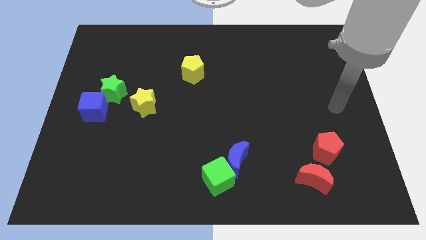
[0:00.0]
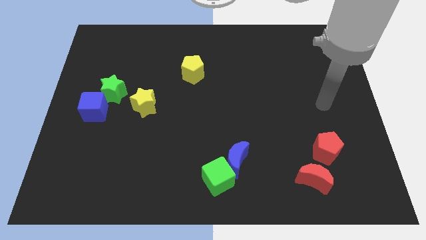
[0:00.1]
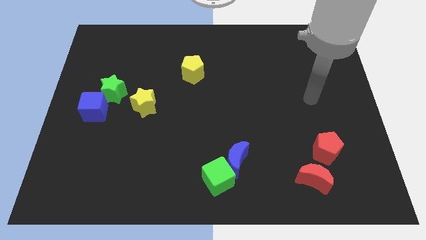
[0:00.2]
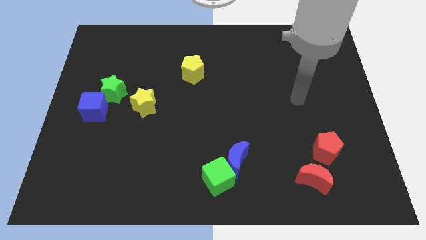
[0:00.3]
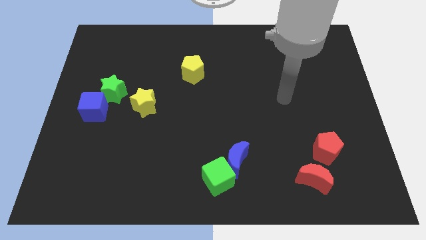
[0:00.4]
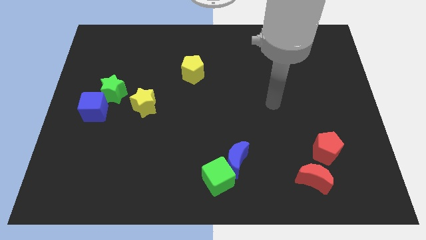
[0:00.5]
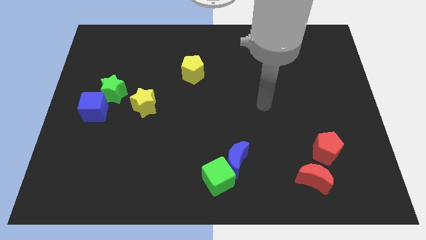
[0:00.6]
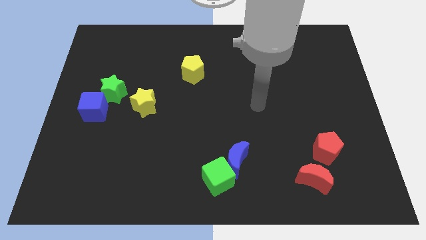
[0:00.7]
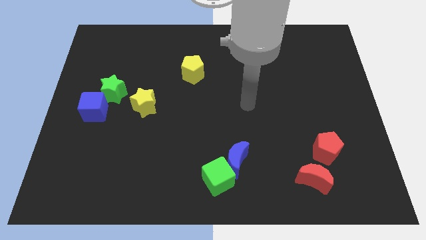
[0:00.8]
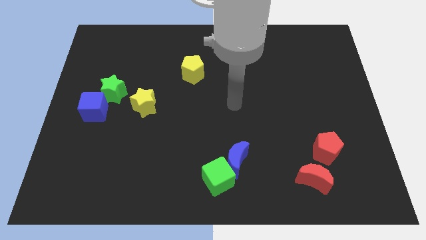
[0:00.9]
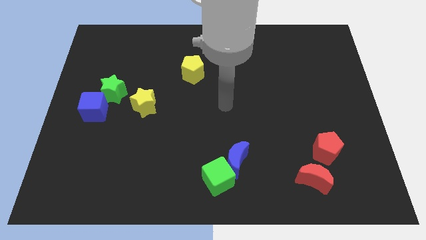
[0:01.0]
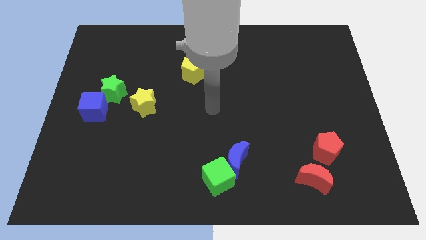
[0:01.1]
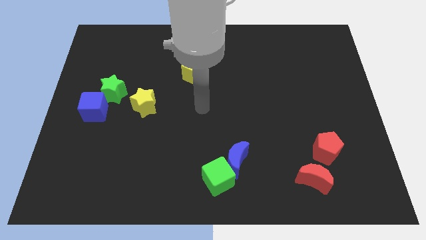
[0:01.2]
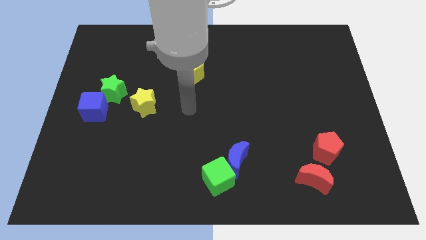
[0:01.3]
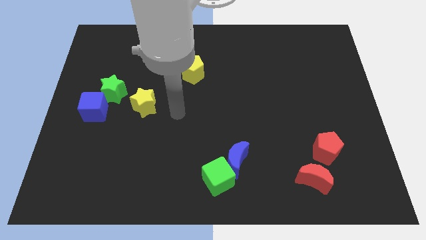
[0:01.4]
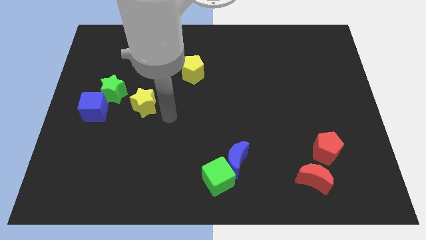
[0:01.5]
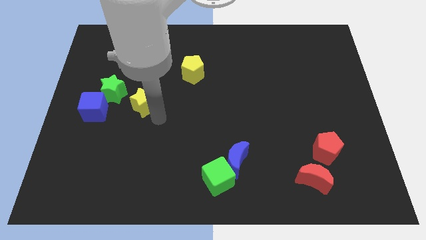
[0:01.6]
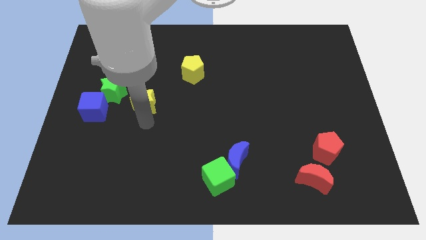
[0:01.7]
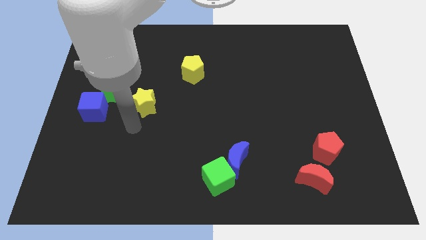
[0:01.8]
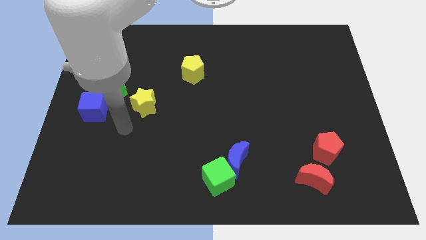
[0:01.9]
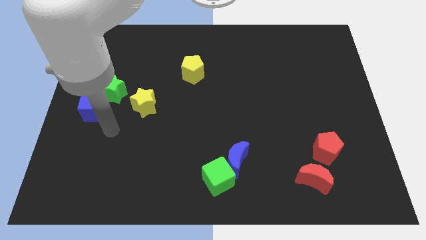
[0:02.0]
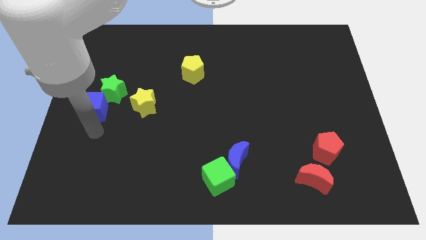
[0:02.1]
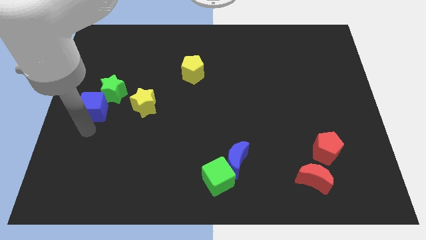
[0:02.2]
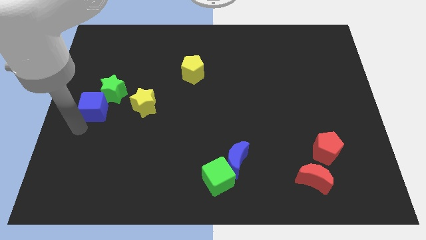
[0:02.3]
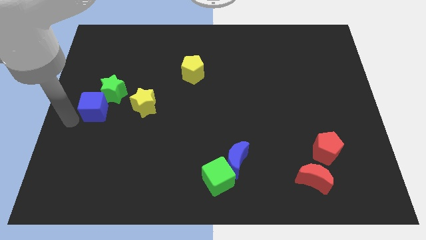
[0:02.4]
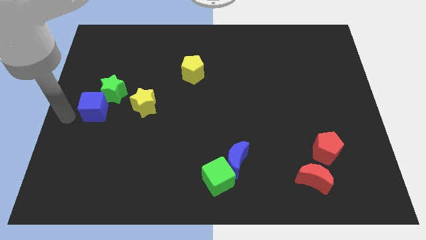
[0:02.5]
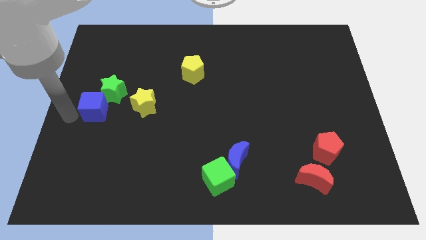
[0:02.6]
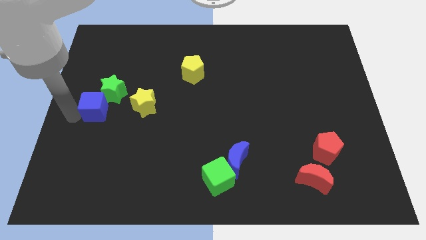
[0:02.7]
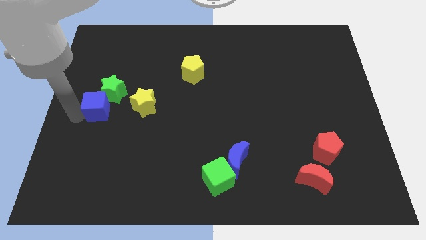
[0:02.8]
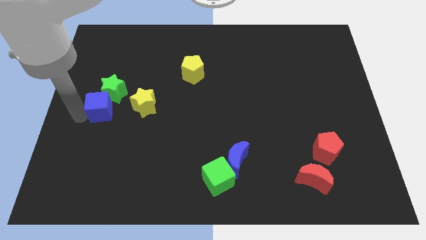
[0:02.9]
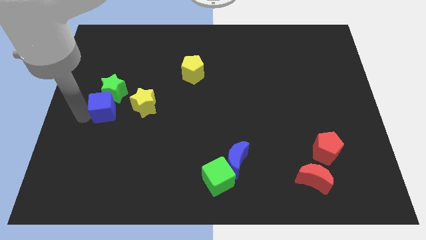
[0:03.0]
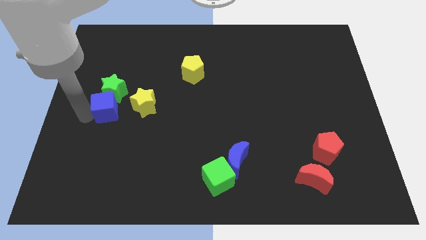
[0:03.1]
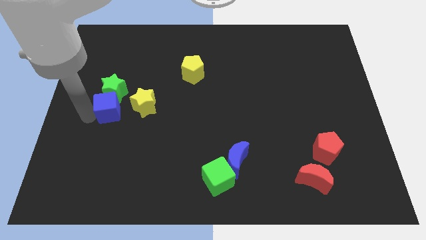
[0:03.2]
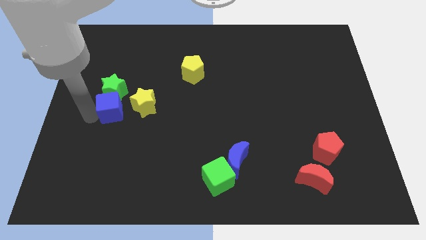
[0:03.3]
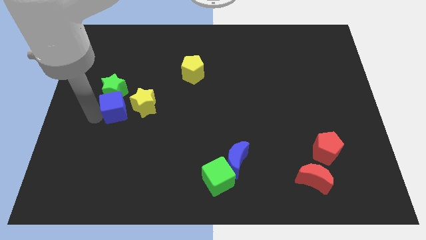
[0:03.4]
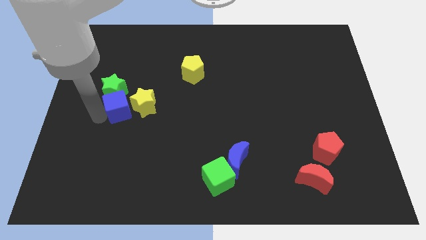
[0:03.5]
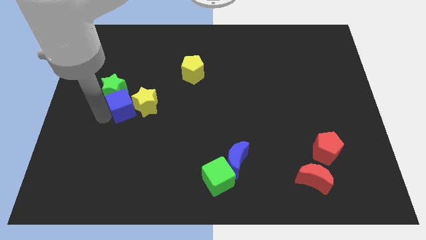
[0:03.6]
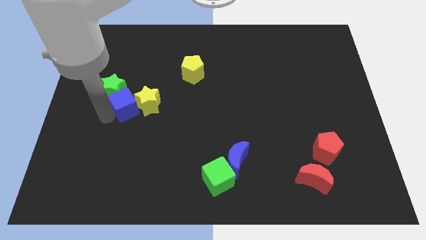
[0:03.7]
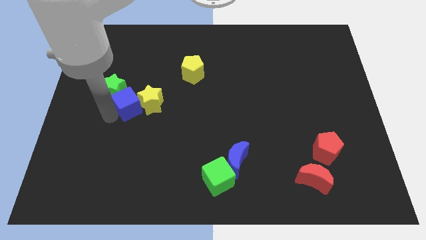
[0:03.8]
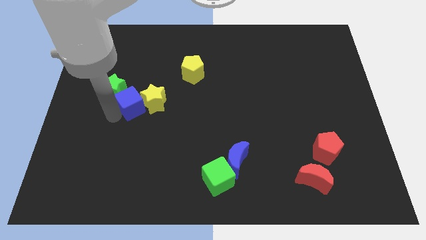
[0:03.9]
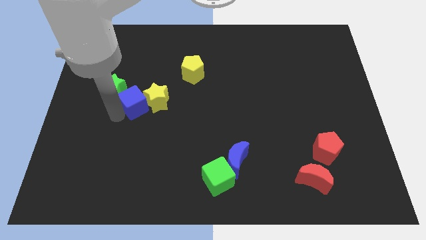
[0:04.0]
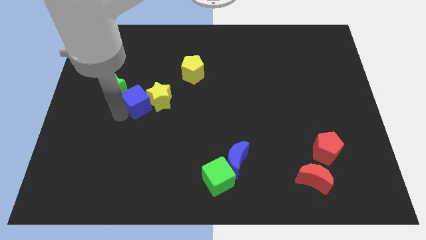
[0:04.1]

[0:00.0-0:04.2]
slightly move the blue cube upwards and right diagonally

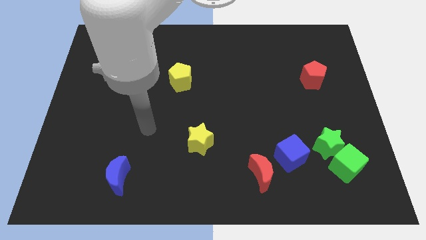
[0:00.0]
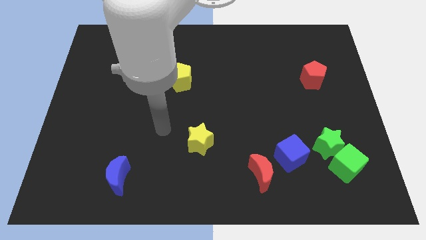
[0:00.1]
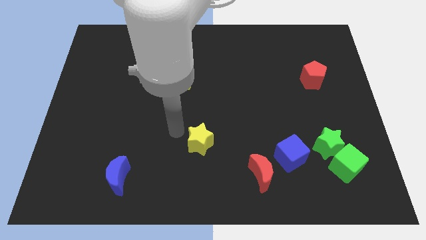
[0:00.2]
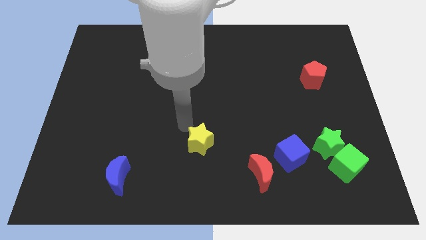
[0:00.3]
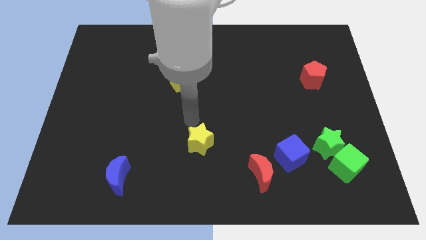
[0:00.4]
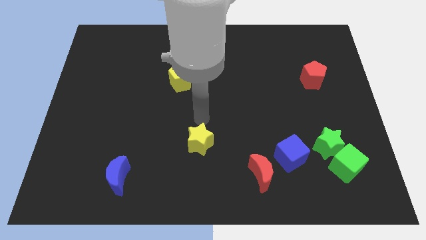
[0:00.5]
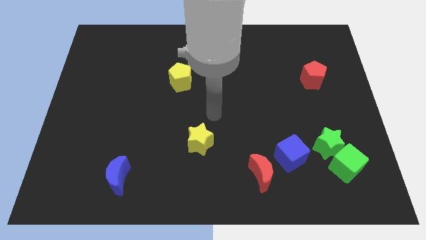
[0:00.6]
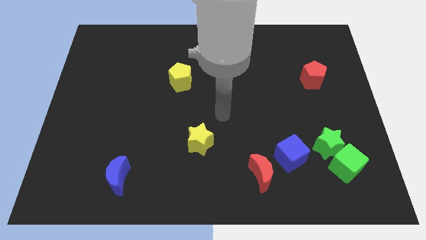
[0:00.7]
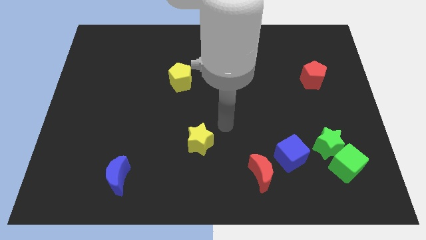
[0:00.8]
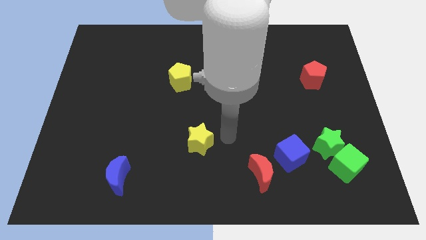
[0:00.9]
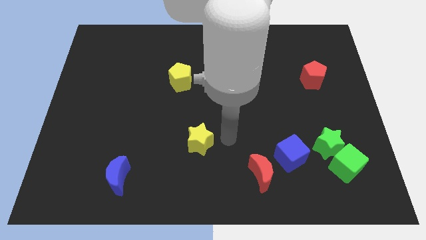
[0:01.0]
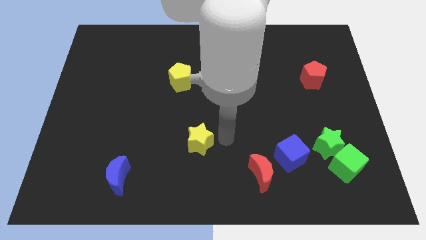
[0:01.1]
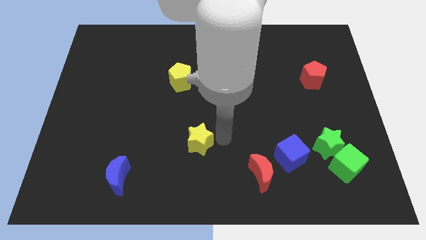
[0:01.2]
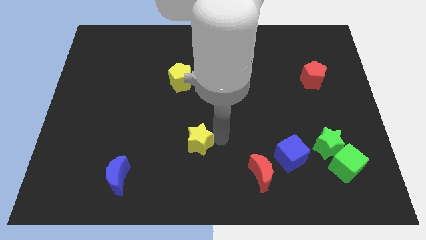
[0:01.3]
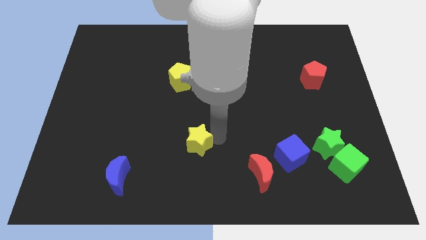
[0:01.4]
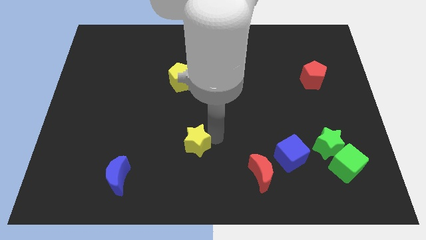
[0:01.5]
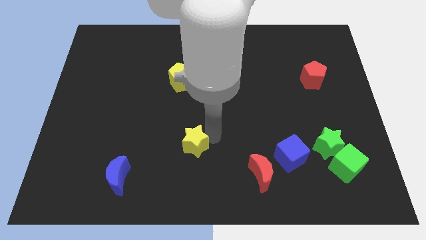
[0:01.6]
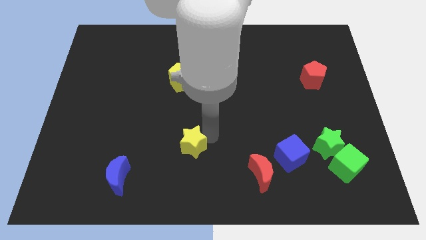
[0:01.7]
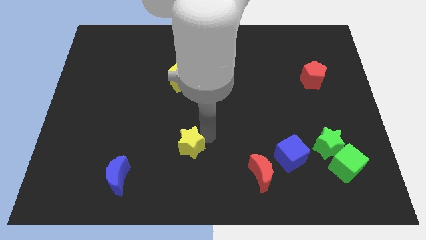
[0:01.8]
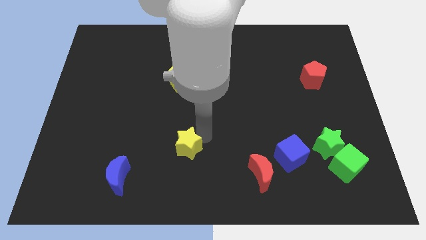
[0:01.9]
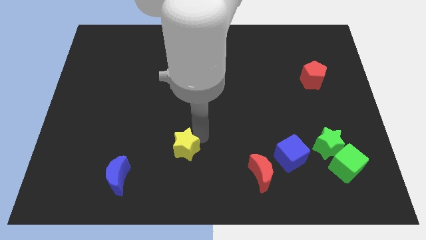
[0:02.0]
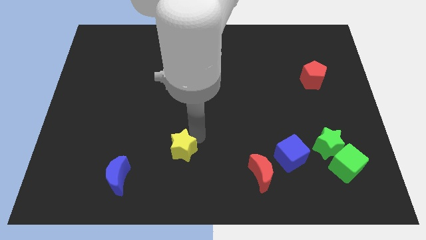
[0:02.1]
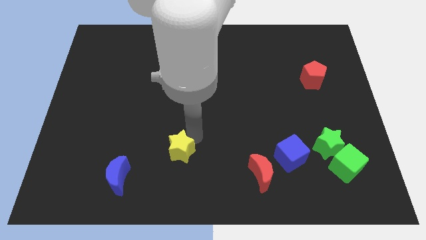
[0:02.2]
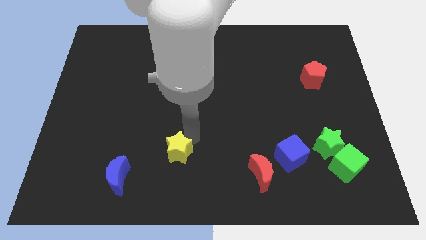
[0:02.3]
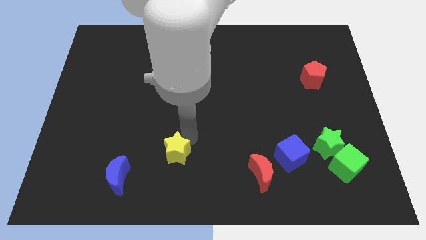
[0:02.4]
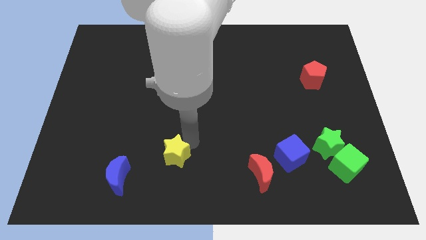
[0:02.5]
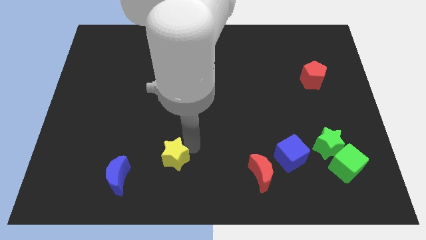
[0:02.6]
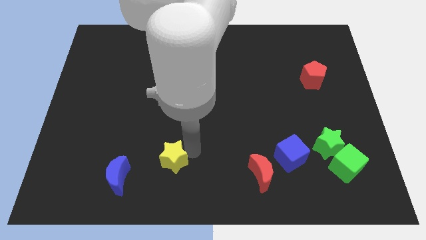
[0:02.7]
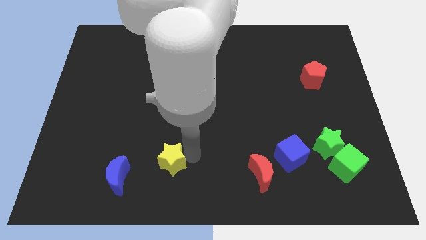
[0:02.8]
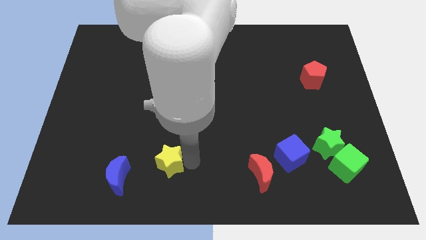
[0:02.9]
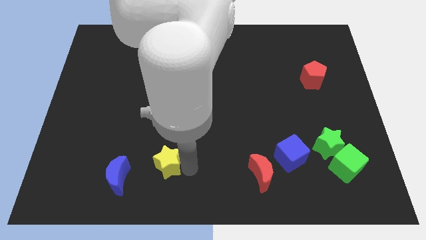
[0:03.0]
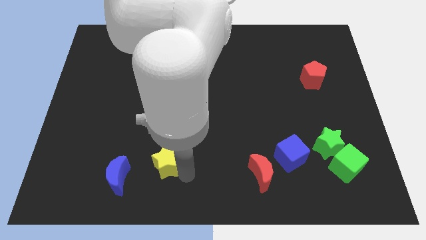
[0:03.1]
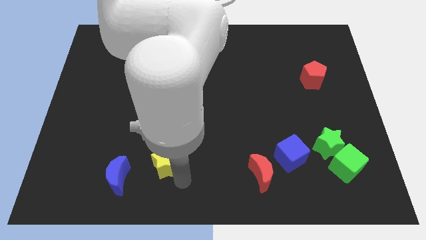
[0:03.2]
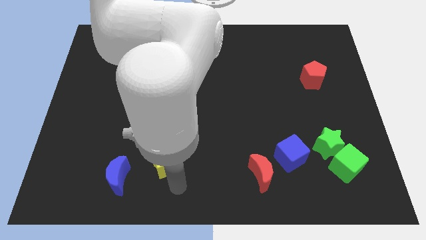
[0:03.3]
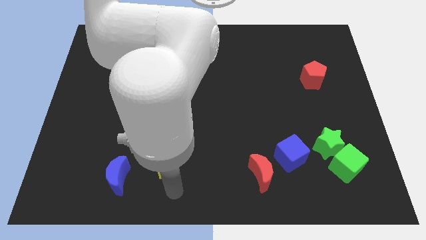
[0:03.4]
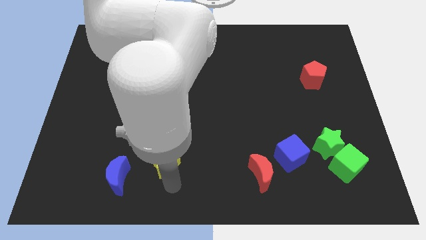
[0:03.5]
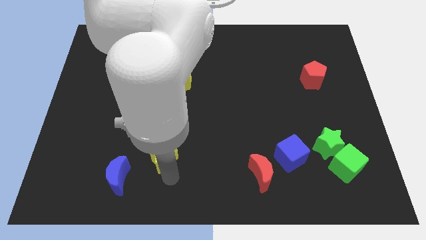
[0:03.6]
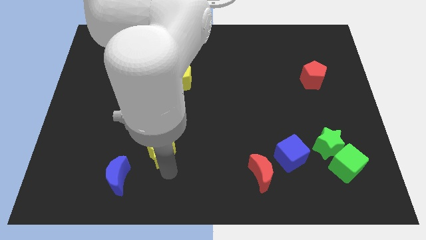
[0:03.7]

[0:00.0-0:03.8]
move the yellow star a bit to the left

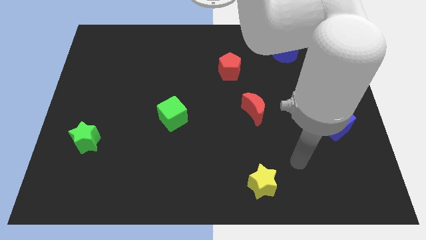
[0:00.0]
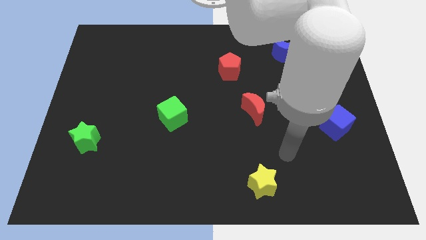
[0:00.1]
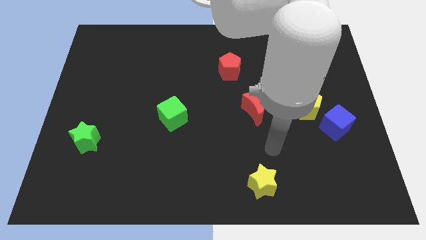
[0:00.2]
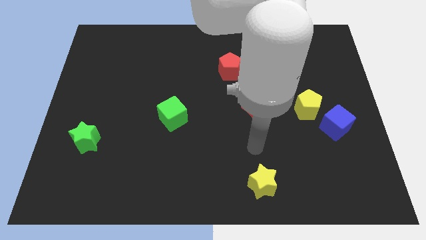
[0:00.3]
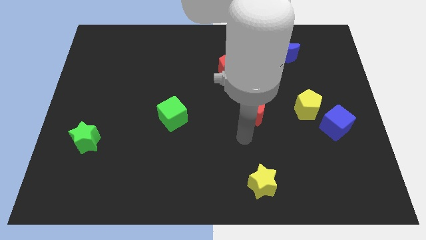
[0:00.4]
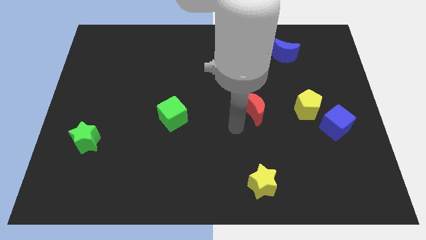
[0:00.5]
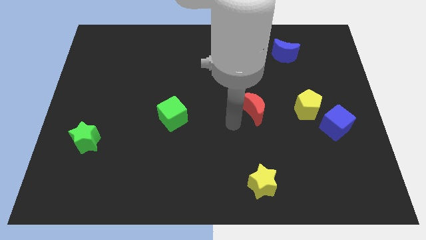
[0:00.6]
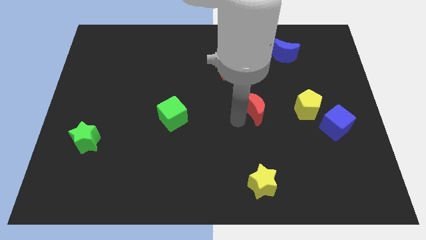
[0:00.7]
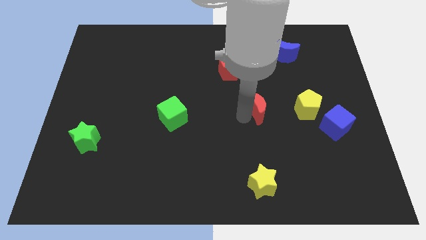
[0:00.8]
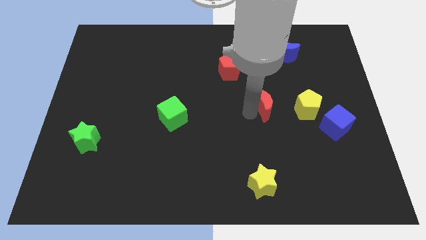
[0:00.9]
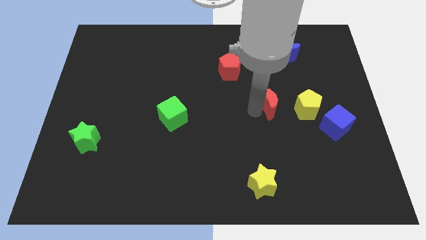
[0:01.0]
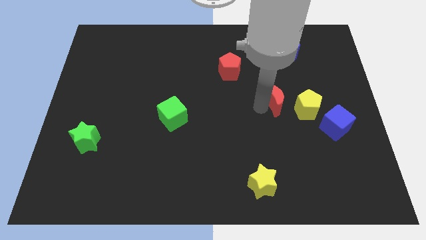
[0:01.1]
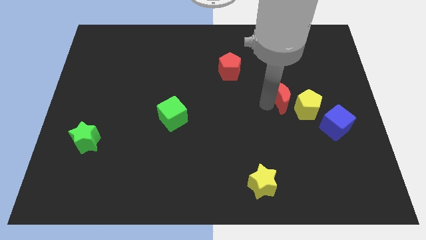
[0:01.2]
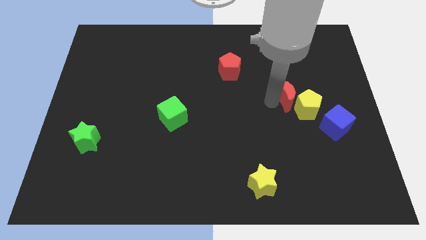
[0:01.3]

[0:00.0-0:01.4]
move the red moon right a little bit
